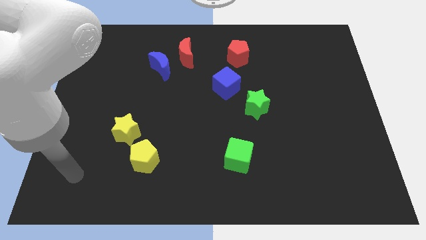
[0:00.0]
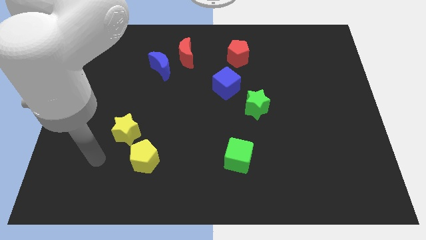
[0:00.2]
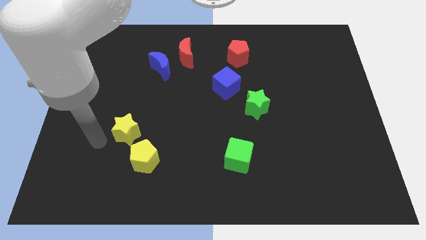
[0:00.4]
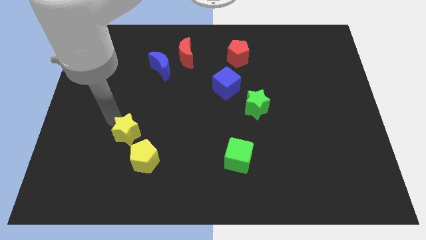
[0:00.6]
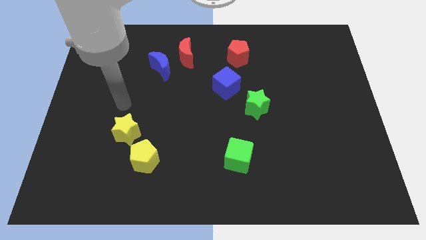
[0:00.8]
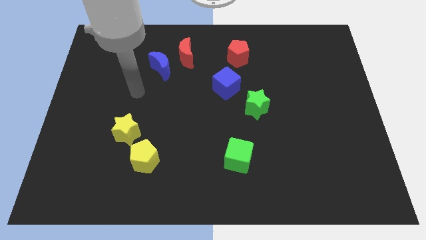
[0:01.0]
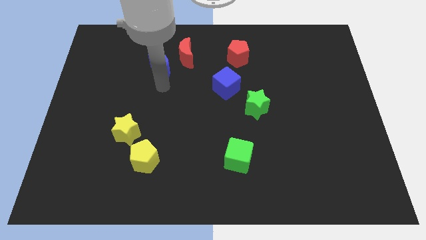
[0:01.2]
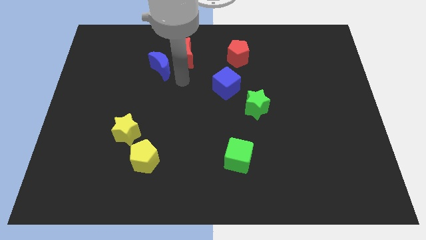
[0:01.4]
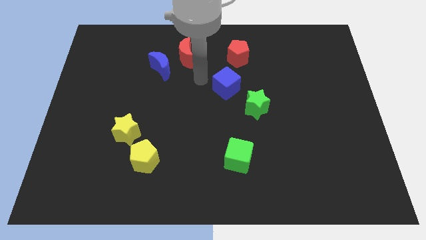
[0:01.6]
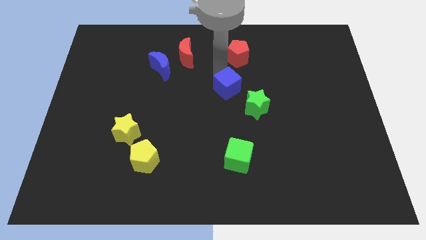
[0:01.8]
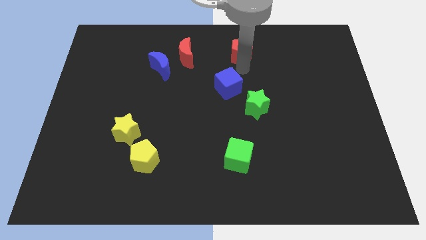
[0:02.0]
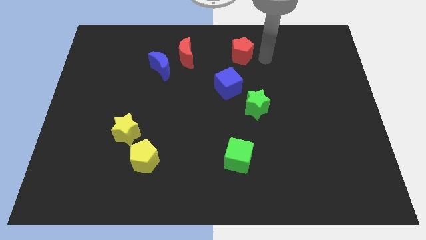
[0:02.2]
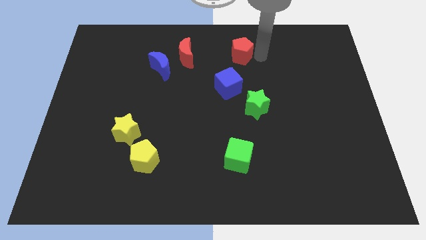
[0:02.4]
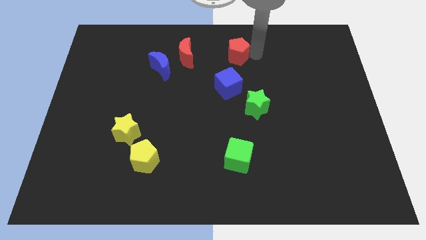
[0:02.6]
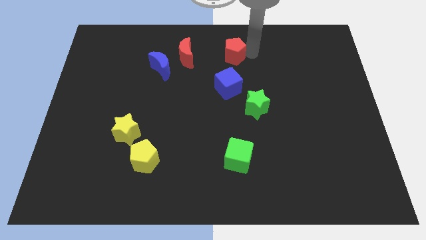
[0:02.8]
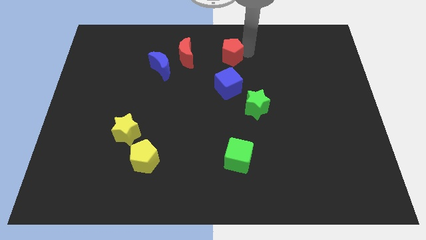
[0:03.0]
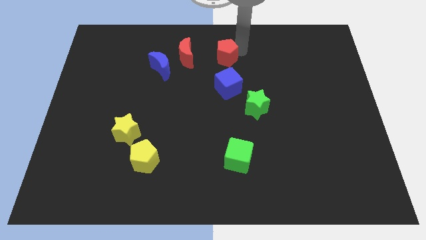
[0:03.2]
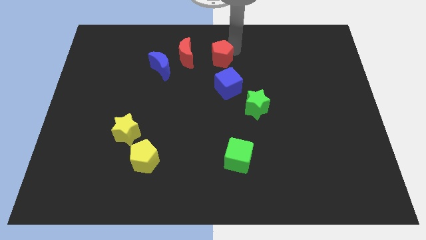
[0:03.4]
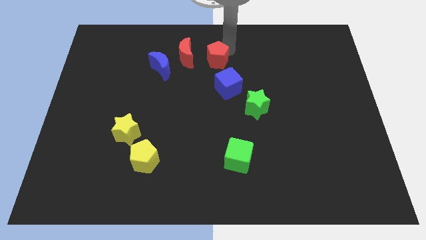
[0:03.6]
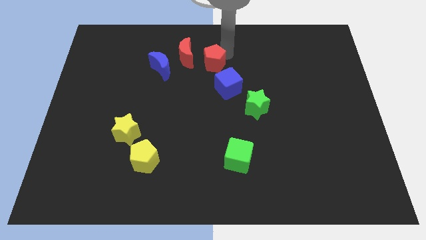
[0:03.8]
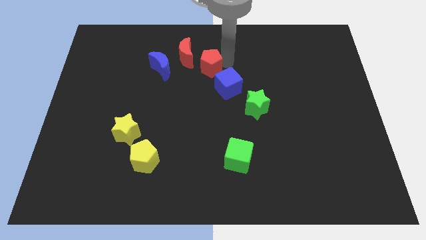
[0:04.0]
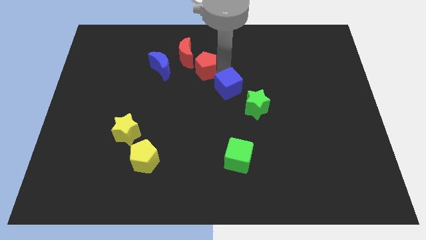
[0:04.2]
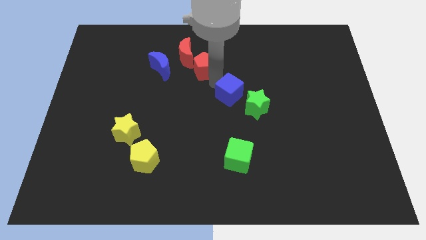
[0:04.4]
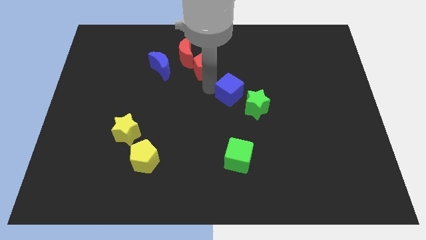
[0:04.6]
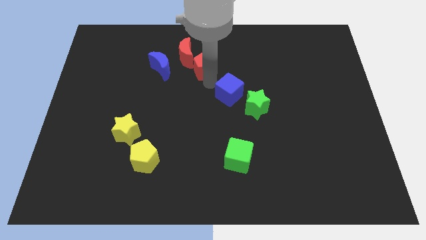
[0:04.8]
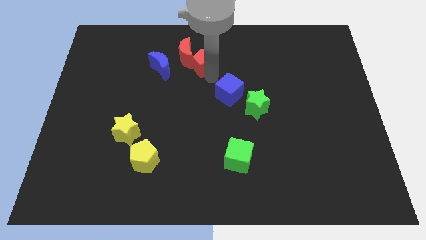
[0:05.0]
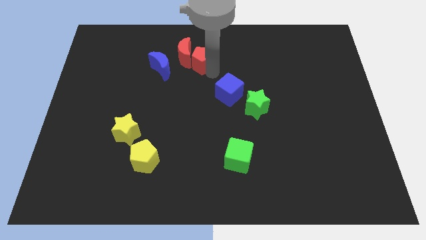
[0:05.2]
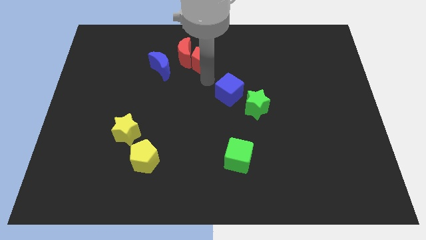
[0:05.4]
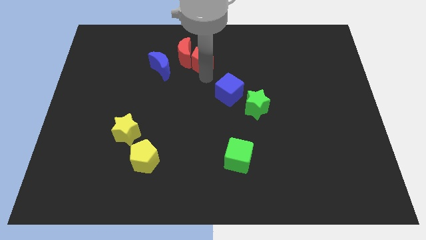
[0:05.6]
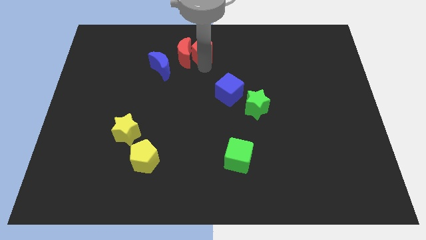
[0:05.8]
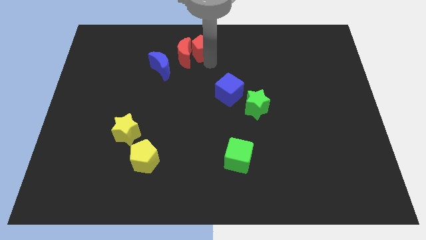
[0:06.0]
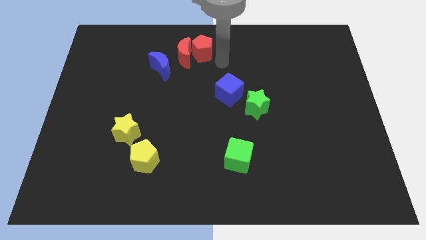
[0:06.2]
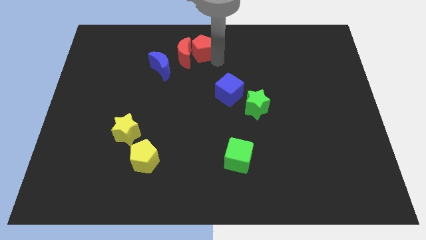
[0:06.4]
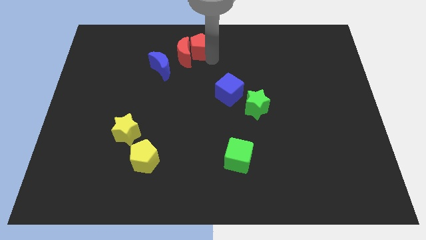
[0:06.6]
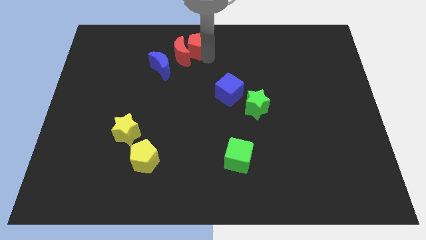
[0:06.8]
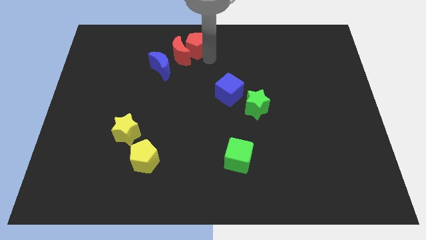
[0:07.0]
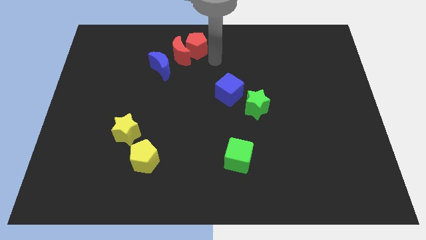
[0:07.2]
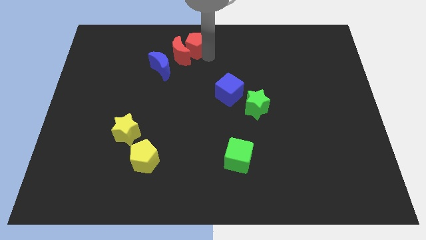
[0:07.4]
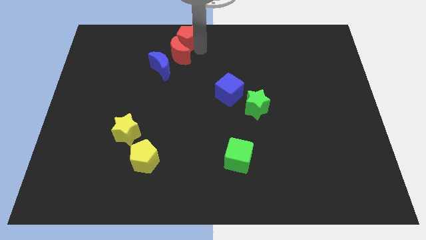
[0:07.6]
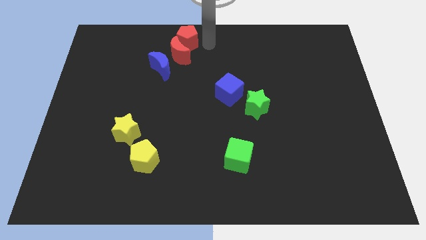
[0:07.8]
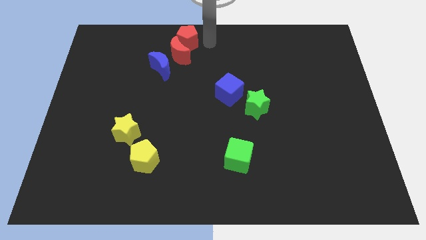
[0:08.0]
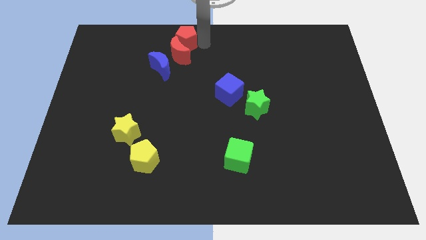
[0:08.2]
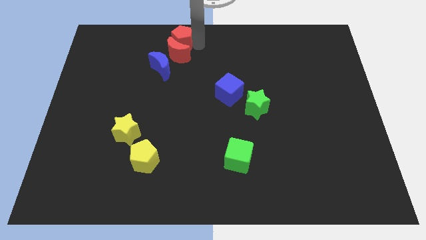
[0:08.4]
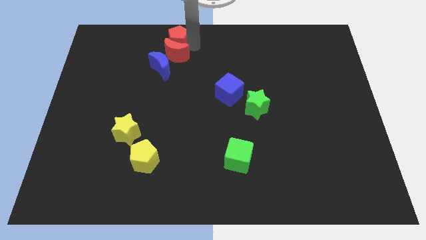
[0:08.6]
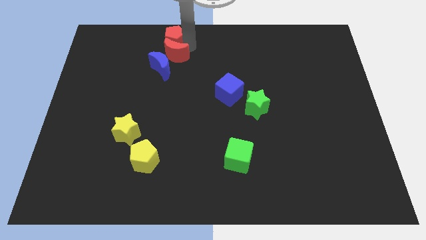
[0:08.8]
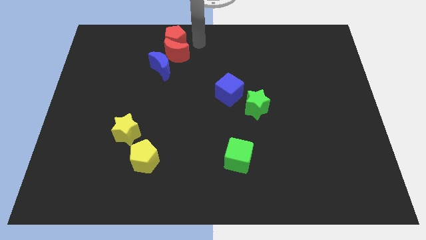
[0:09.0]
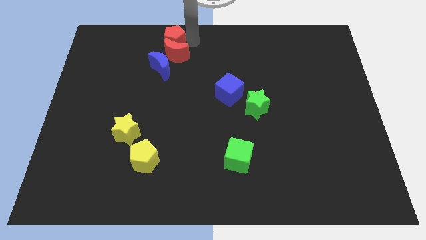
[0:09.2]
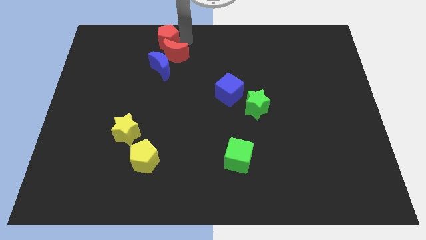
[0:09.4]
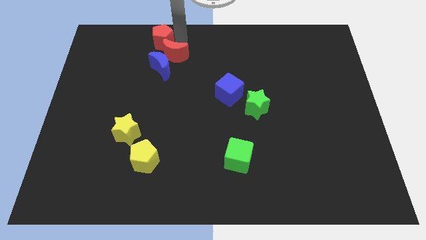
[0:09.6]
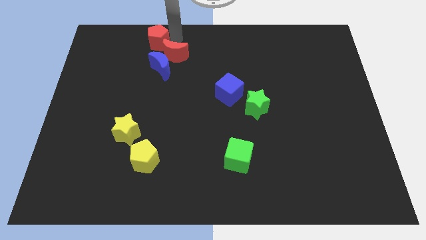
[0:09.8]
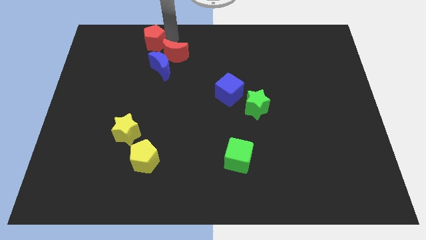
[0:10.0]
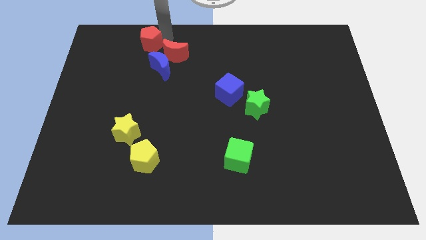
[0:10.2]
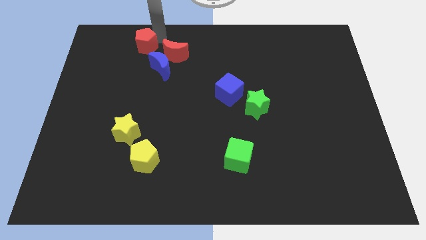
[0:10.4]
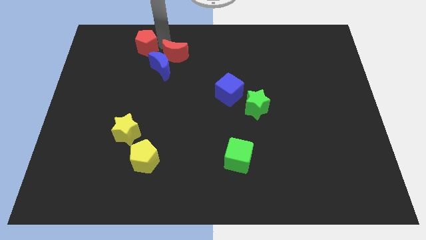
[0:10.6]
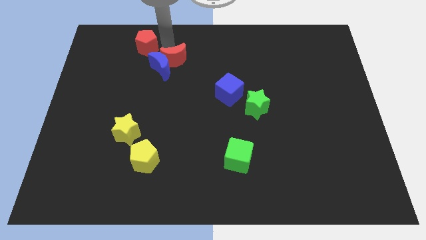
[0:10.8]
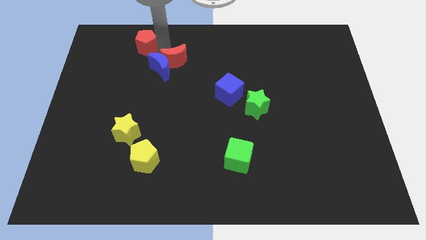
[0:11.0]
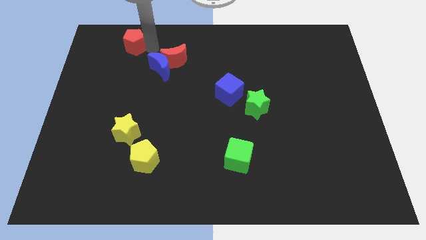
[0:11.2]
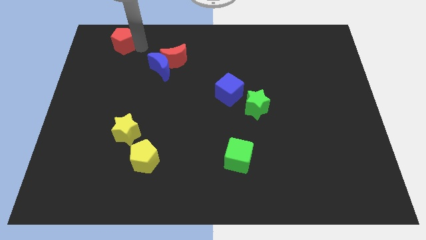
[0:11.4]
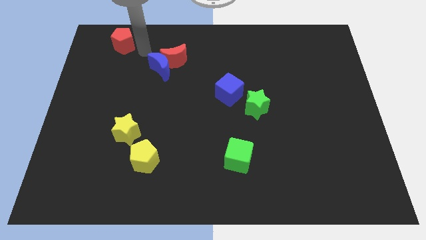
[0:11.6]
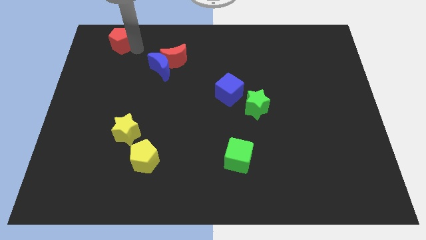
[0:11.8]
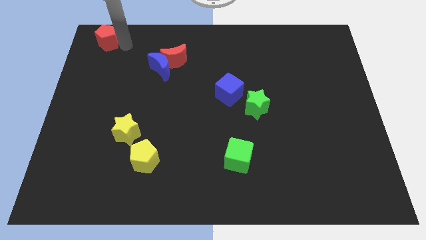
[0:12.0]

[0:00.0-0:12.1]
push the red pentagon to the top left
